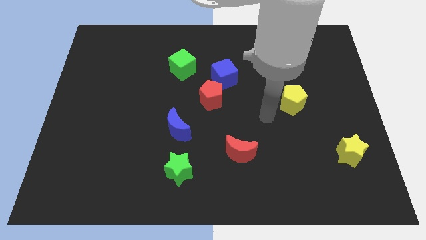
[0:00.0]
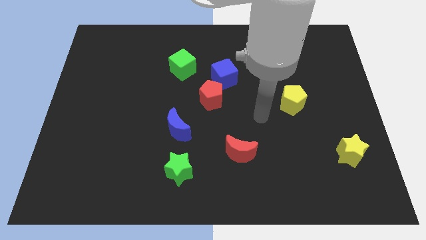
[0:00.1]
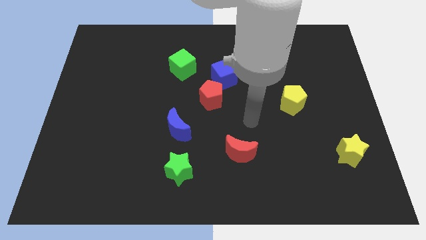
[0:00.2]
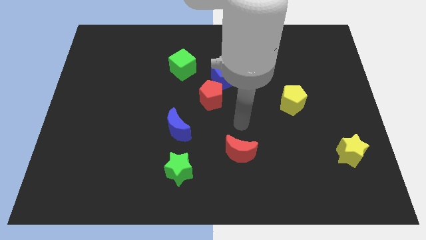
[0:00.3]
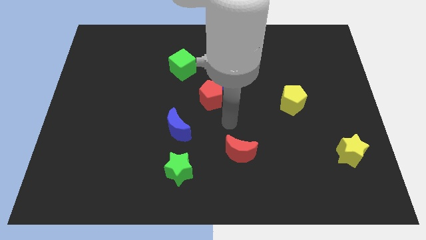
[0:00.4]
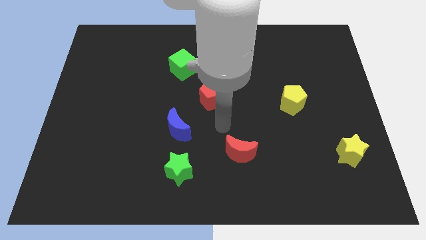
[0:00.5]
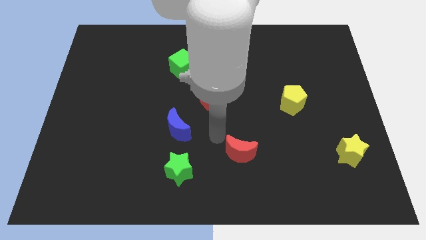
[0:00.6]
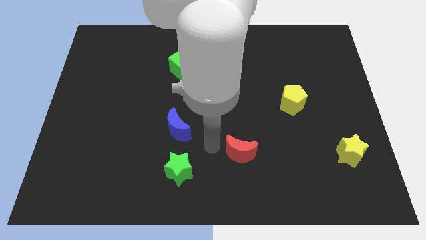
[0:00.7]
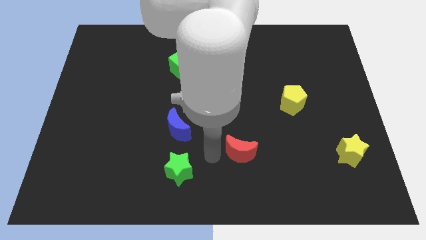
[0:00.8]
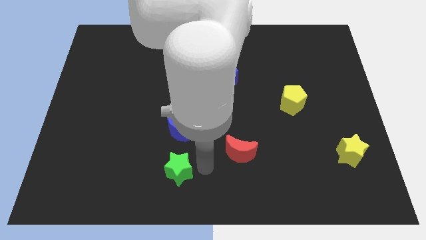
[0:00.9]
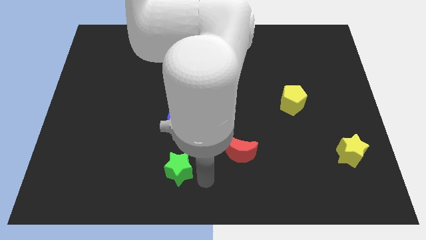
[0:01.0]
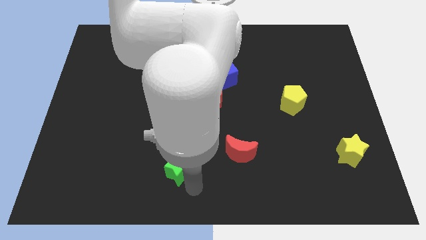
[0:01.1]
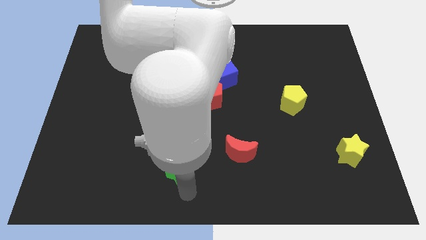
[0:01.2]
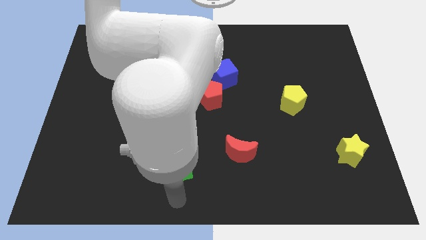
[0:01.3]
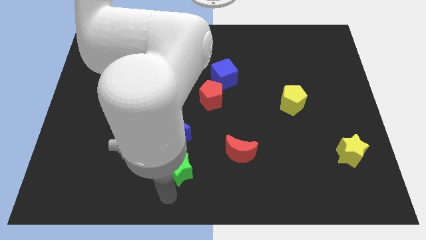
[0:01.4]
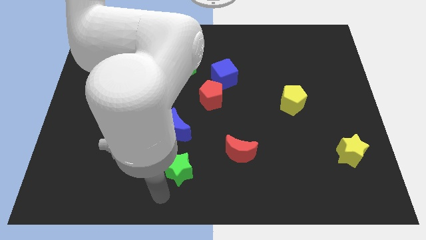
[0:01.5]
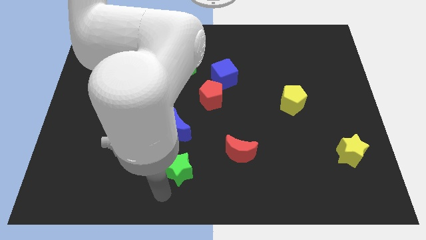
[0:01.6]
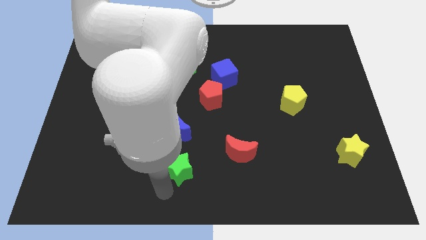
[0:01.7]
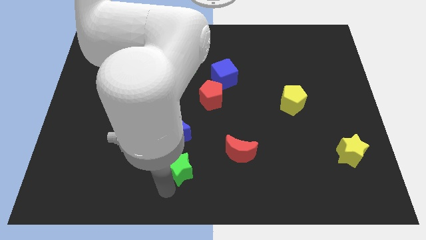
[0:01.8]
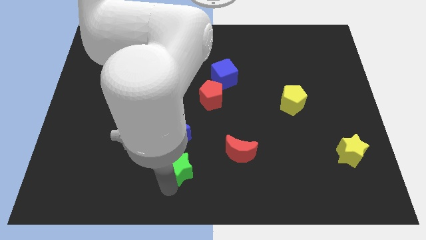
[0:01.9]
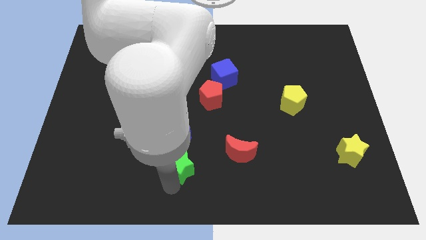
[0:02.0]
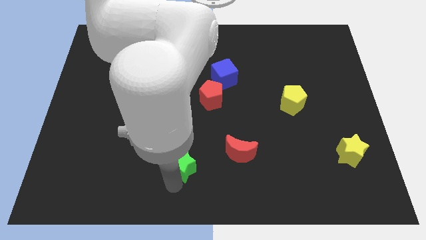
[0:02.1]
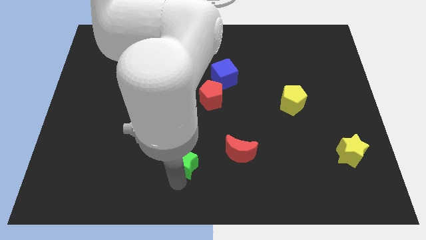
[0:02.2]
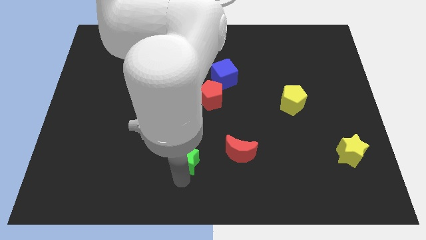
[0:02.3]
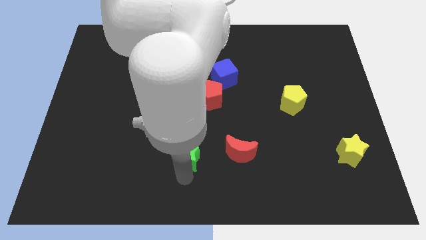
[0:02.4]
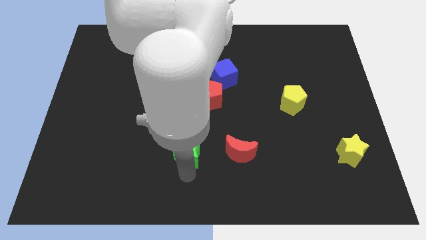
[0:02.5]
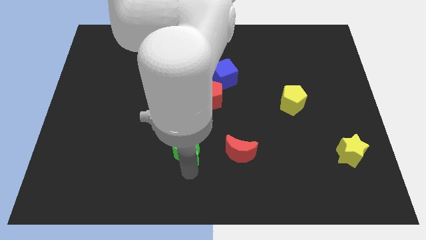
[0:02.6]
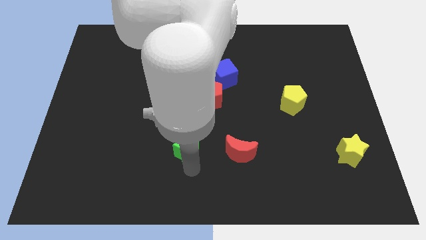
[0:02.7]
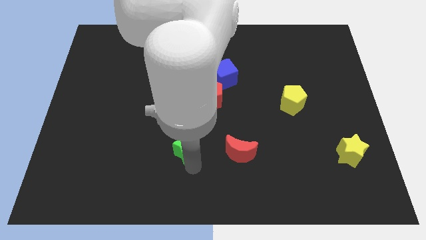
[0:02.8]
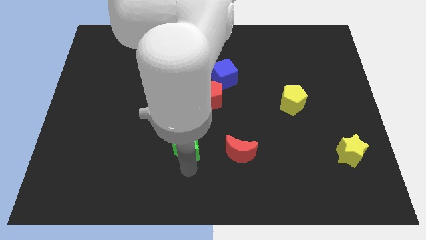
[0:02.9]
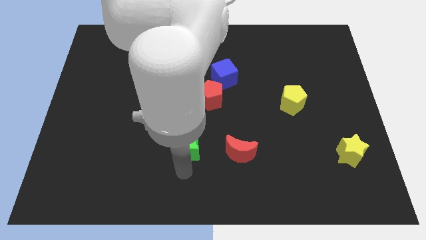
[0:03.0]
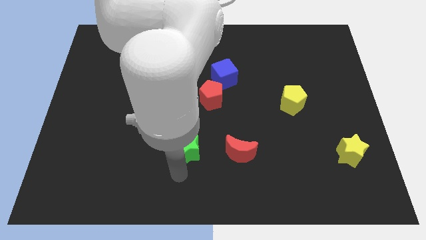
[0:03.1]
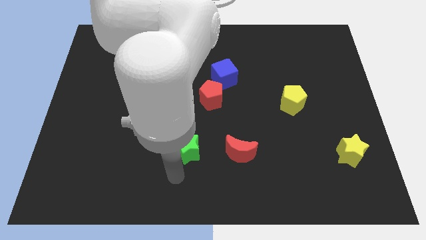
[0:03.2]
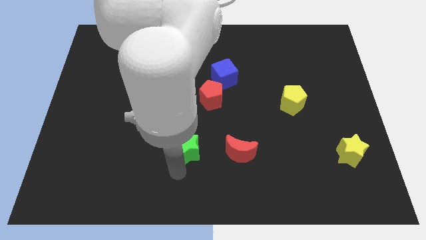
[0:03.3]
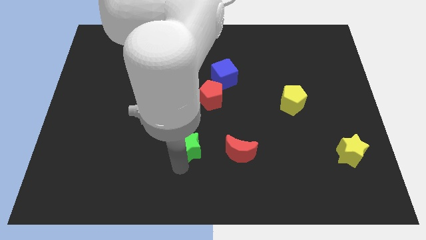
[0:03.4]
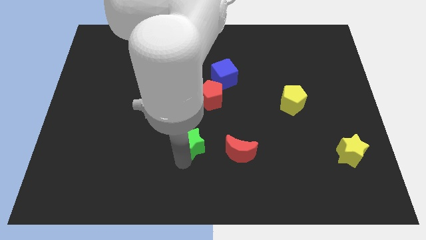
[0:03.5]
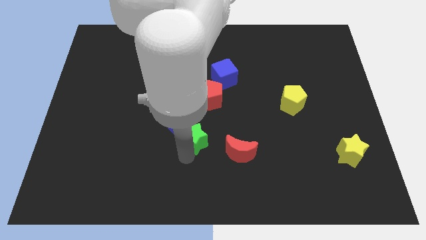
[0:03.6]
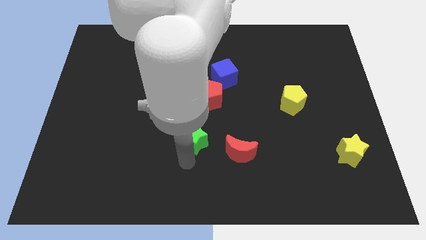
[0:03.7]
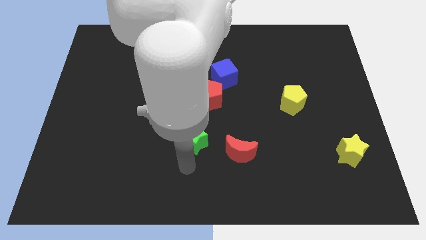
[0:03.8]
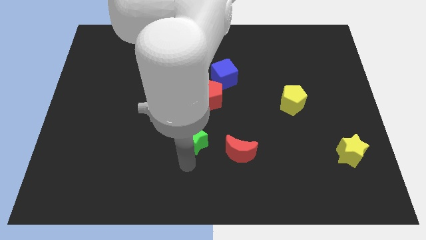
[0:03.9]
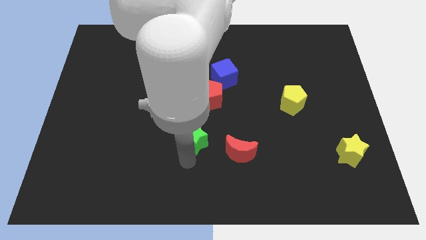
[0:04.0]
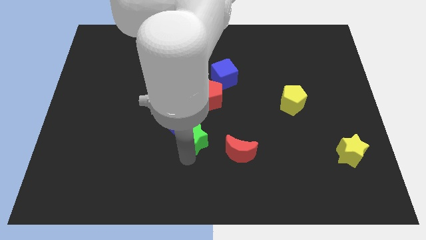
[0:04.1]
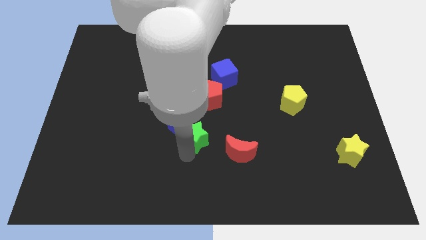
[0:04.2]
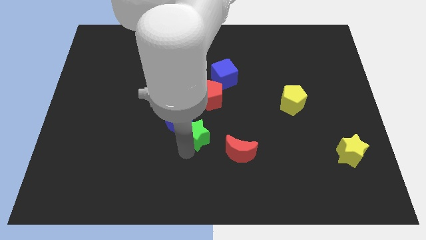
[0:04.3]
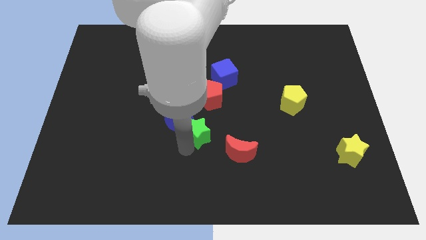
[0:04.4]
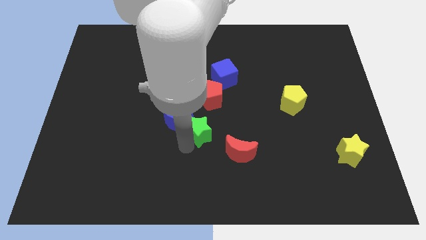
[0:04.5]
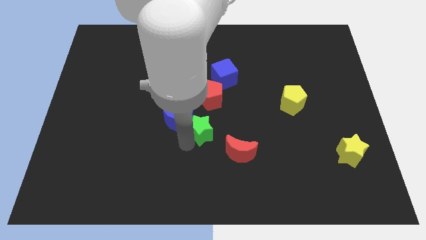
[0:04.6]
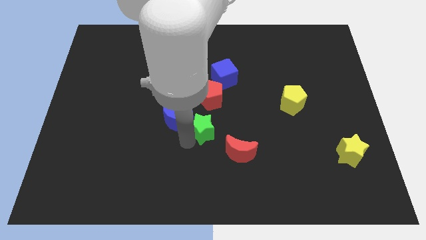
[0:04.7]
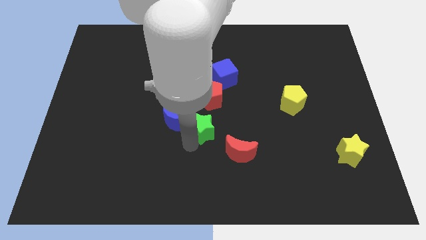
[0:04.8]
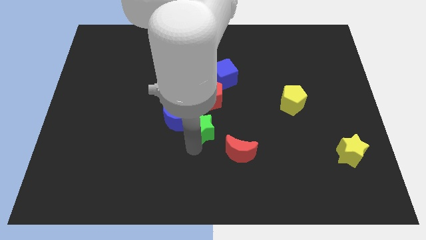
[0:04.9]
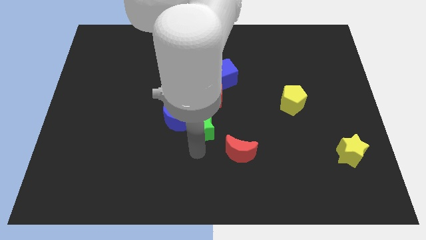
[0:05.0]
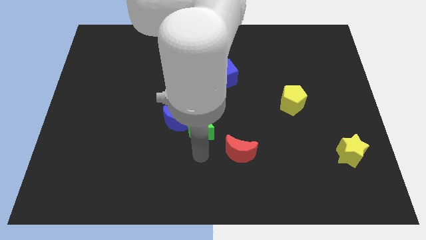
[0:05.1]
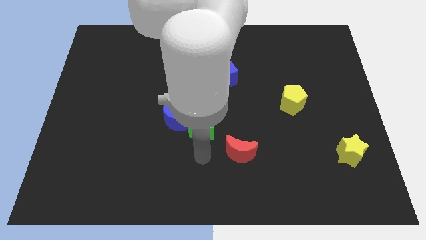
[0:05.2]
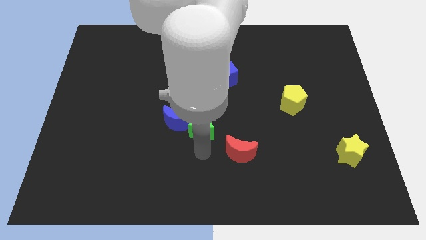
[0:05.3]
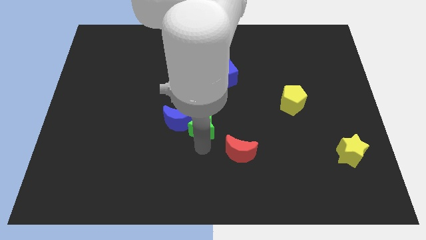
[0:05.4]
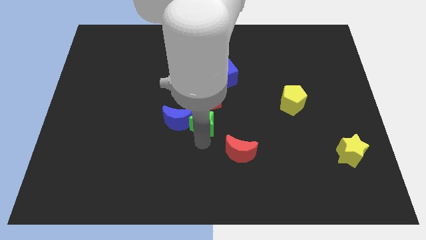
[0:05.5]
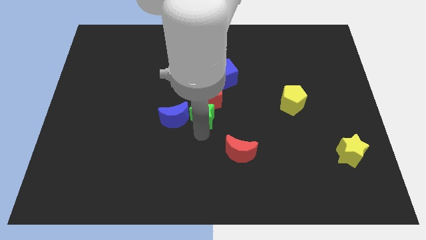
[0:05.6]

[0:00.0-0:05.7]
put the green star to the red pentagon
